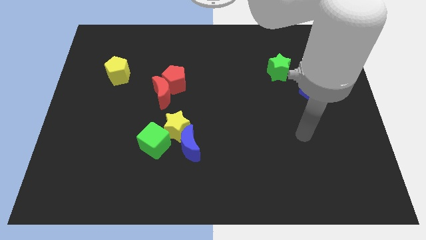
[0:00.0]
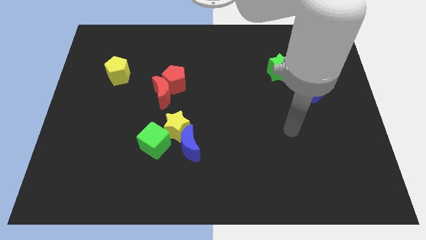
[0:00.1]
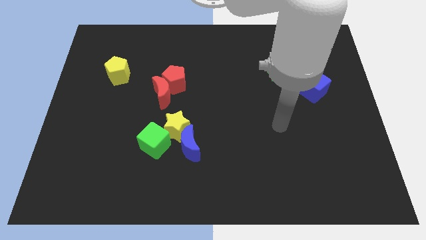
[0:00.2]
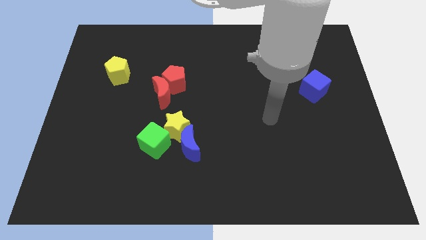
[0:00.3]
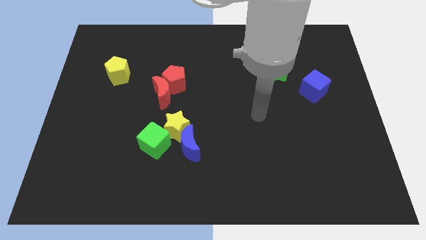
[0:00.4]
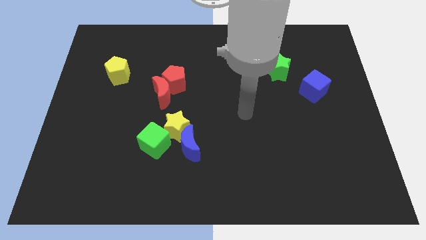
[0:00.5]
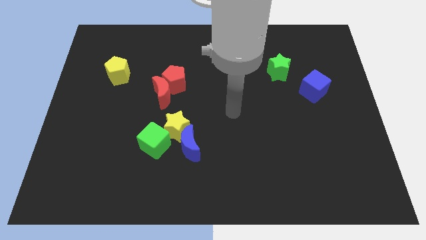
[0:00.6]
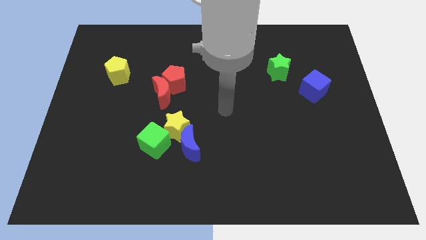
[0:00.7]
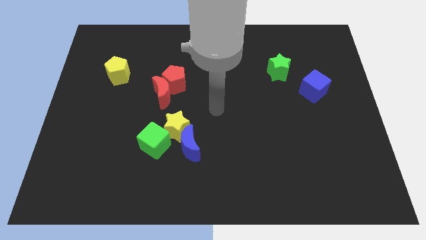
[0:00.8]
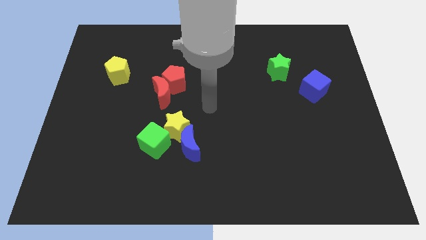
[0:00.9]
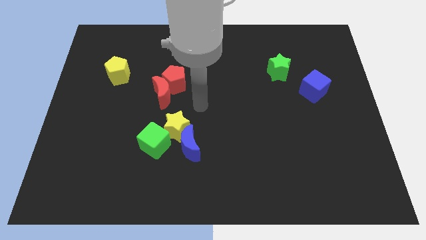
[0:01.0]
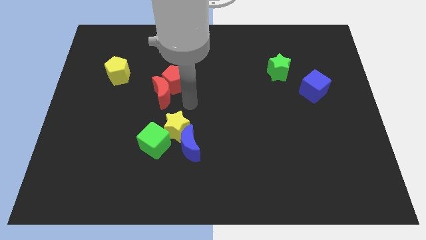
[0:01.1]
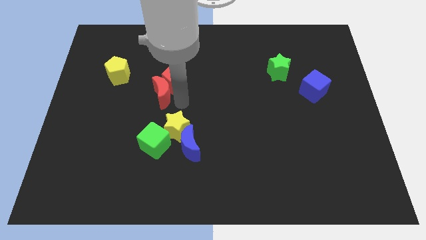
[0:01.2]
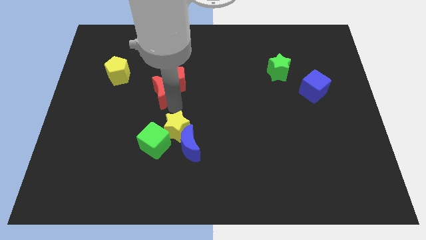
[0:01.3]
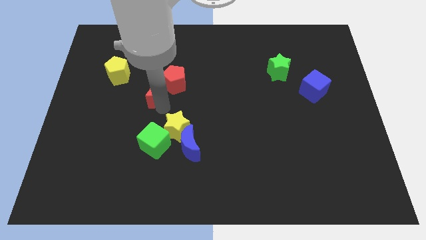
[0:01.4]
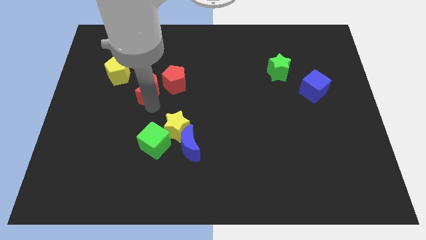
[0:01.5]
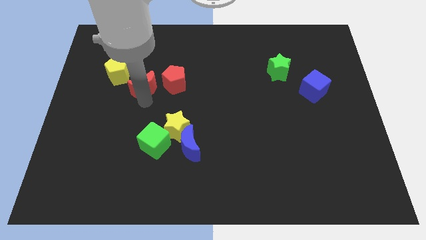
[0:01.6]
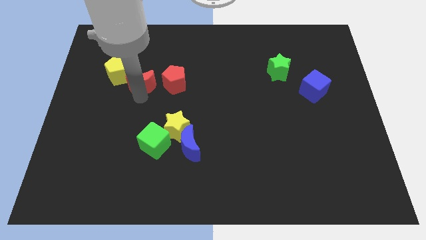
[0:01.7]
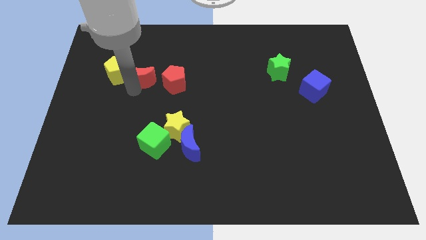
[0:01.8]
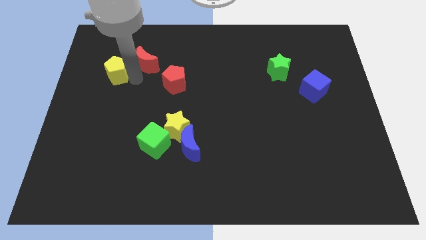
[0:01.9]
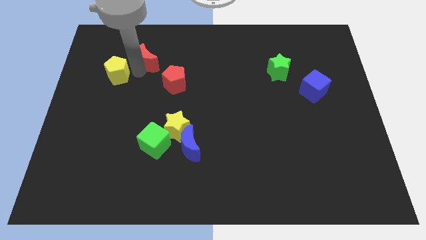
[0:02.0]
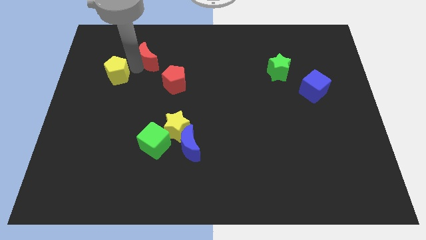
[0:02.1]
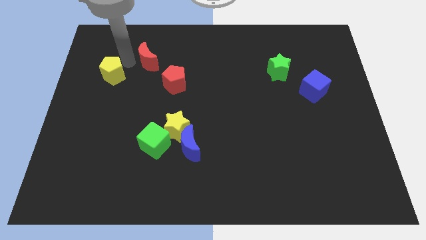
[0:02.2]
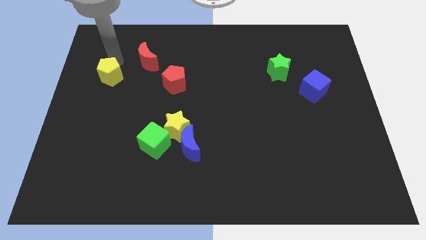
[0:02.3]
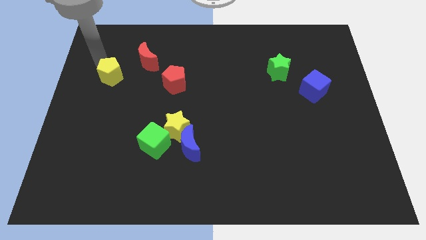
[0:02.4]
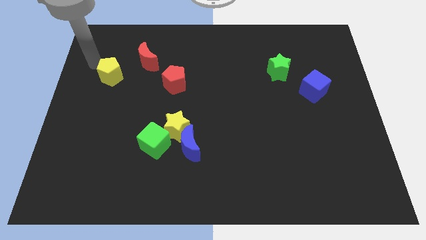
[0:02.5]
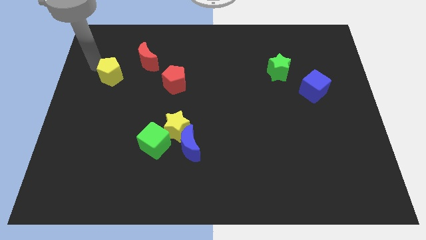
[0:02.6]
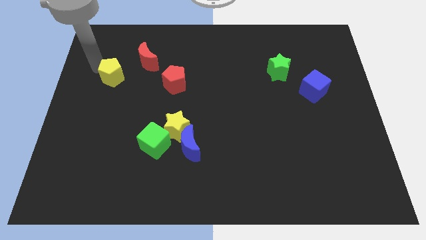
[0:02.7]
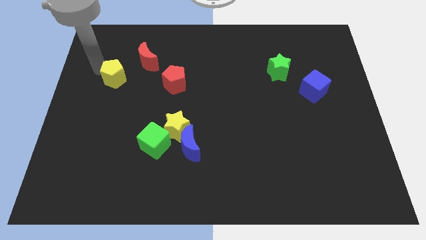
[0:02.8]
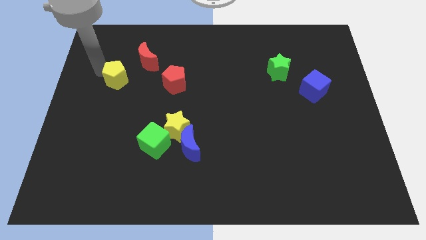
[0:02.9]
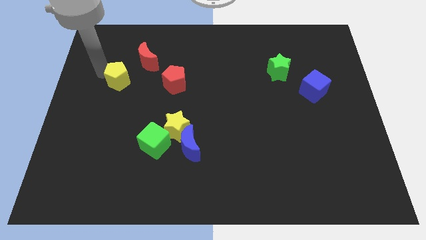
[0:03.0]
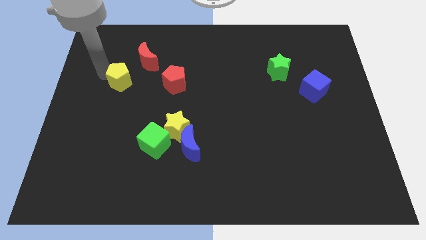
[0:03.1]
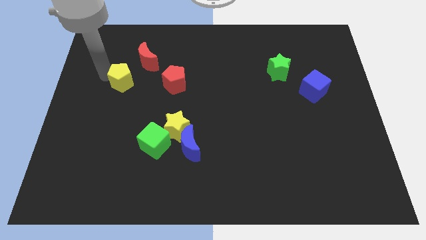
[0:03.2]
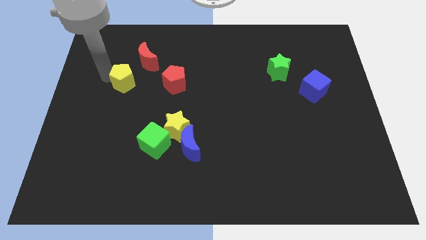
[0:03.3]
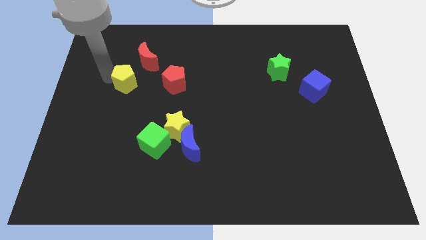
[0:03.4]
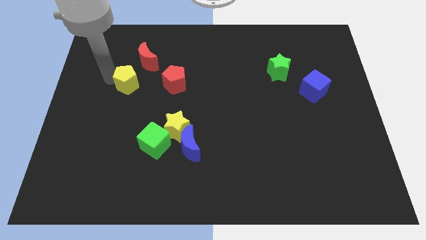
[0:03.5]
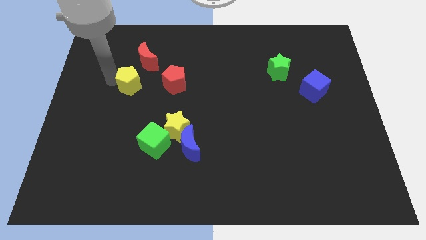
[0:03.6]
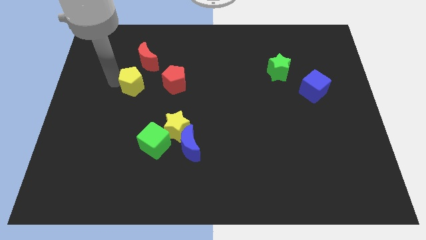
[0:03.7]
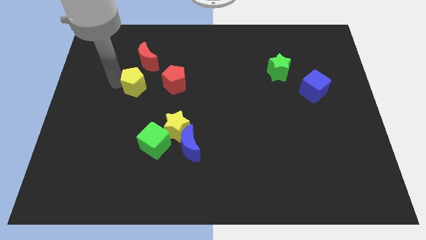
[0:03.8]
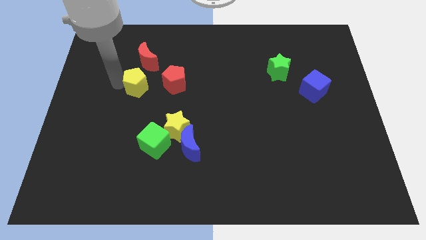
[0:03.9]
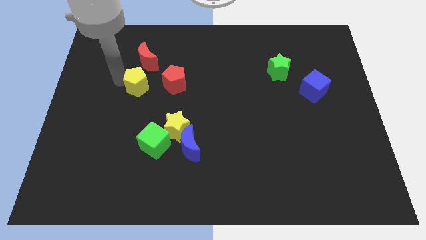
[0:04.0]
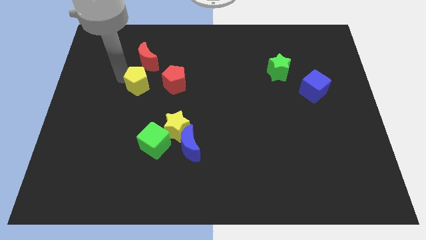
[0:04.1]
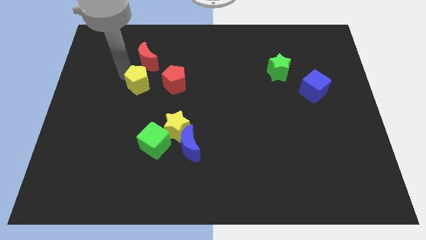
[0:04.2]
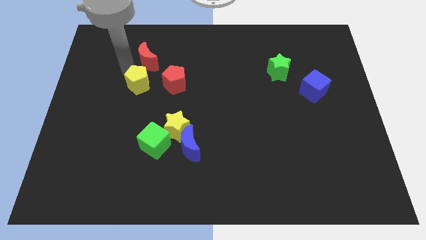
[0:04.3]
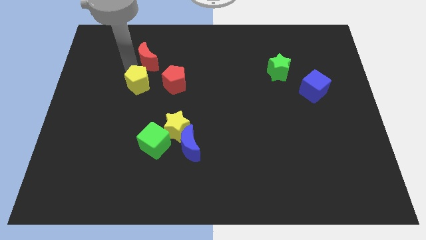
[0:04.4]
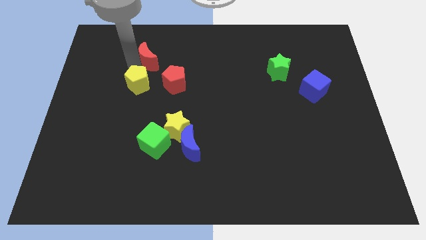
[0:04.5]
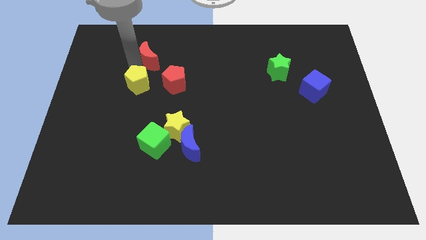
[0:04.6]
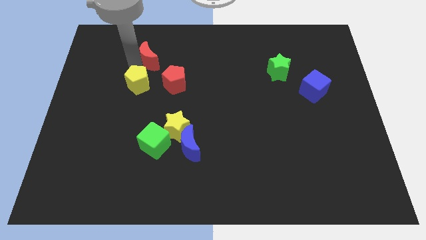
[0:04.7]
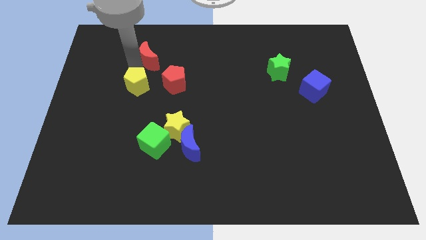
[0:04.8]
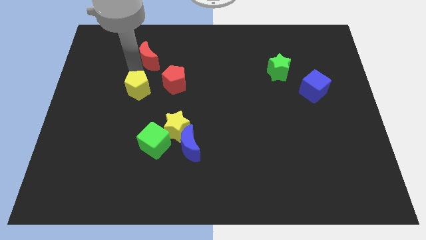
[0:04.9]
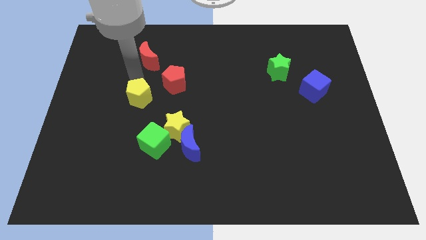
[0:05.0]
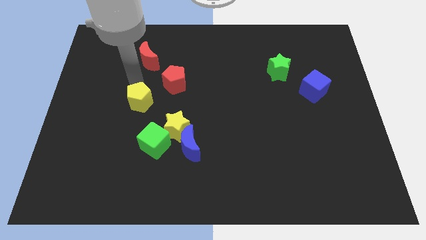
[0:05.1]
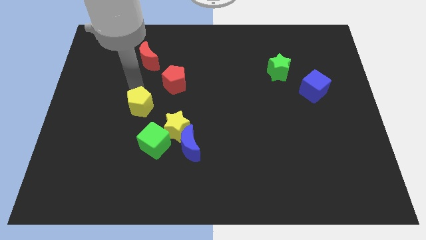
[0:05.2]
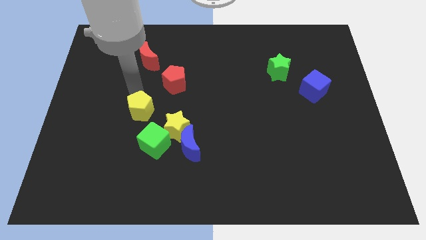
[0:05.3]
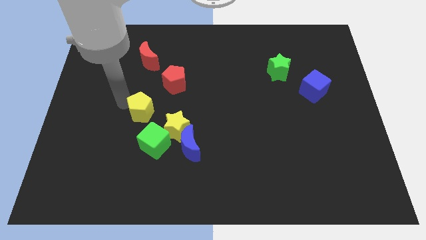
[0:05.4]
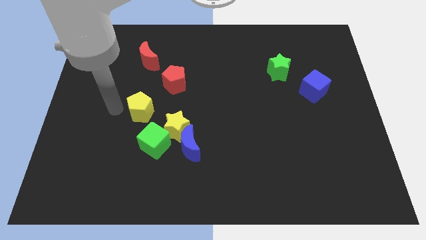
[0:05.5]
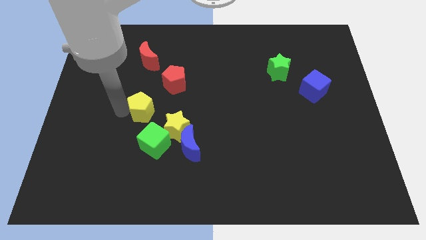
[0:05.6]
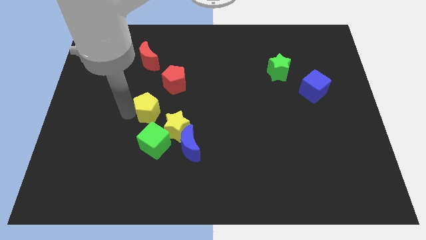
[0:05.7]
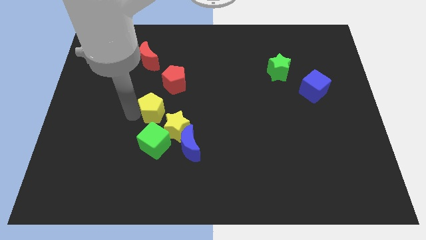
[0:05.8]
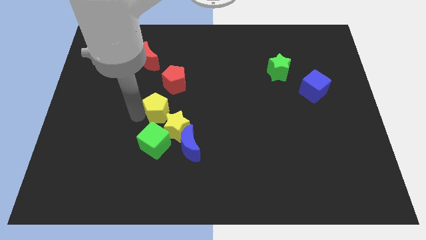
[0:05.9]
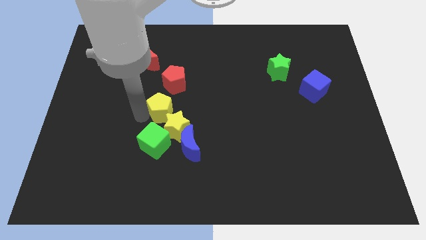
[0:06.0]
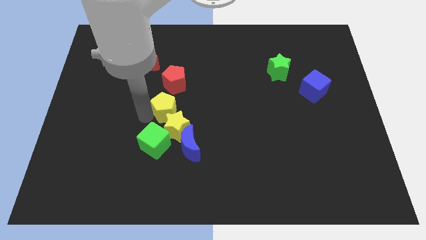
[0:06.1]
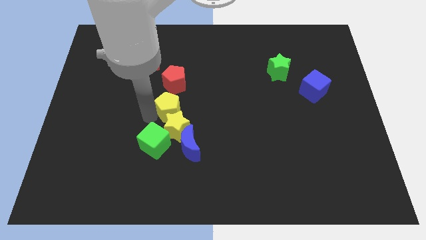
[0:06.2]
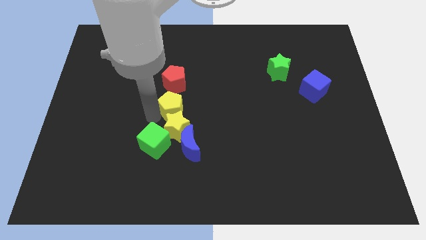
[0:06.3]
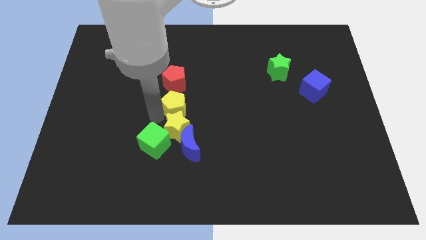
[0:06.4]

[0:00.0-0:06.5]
put the yellow pentagon to the top right side of the yellow star
